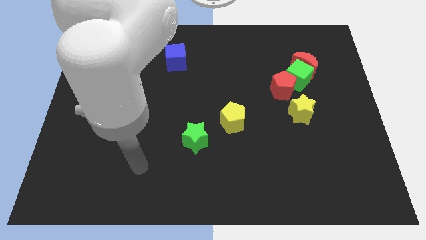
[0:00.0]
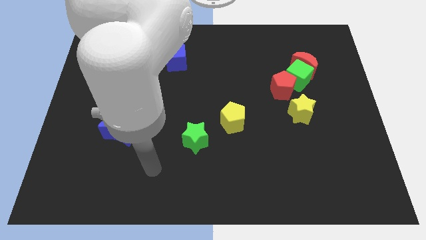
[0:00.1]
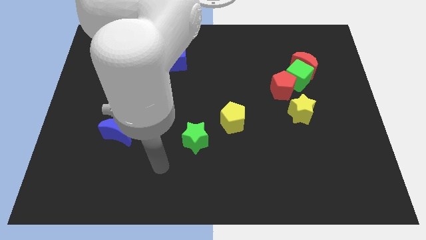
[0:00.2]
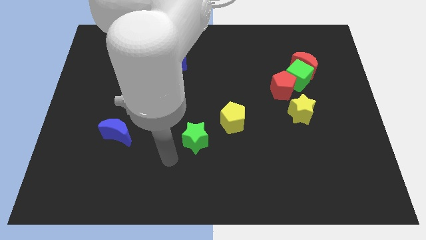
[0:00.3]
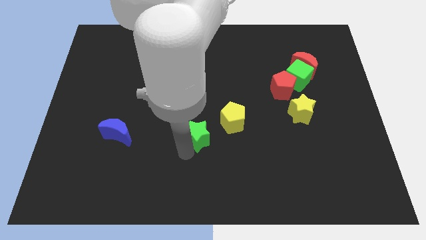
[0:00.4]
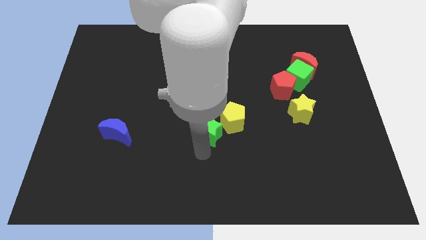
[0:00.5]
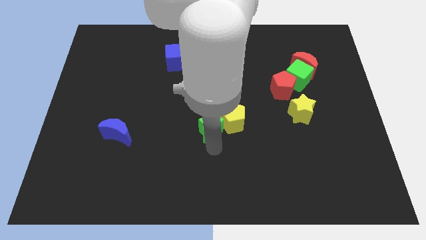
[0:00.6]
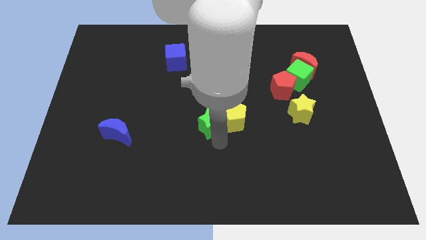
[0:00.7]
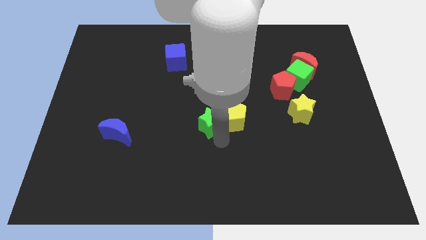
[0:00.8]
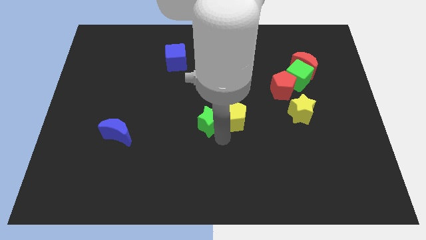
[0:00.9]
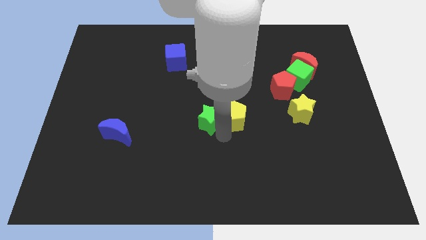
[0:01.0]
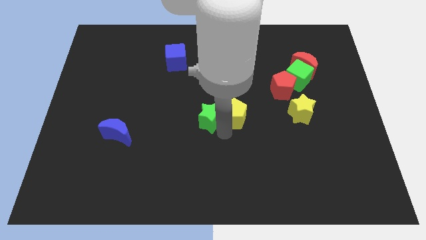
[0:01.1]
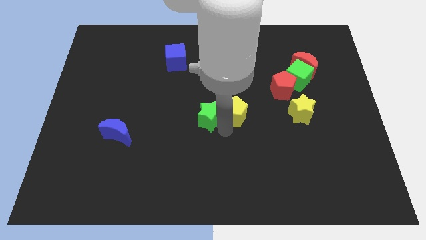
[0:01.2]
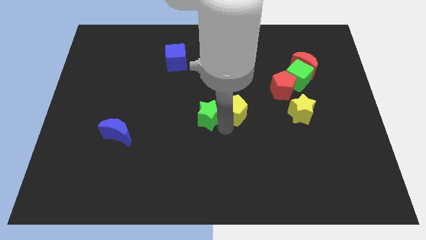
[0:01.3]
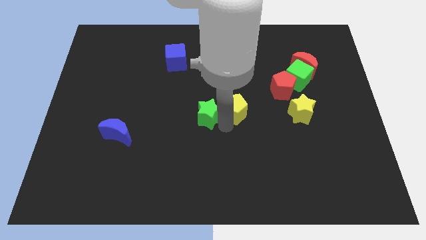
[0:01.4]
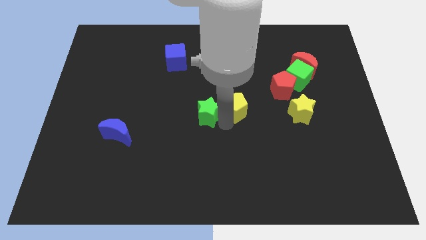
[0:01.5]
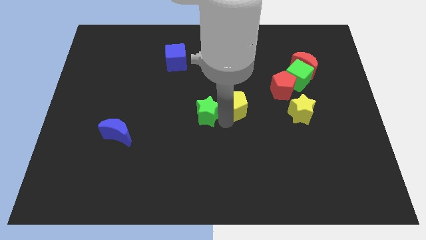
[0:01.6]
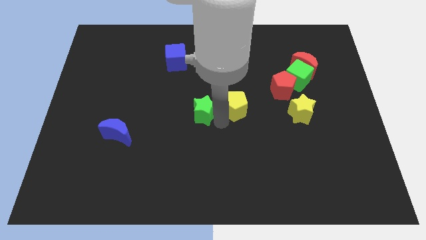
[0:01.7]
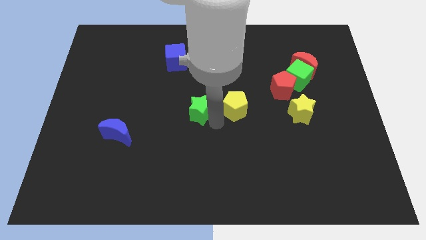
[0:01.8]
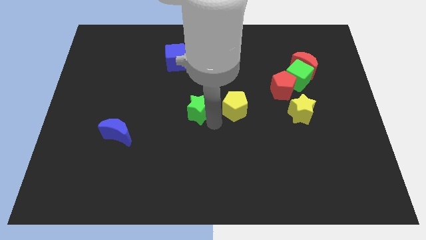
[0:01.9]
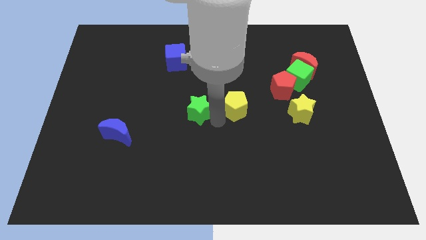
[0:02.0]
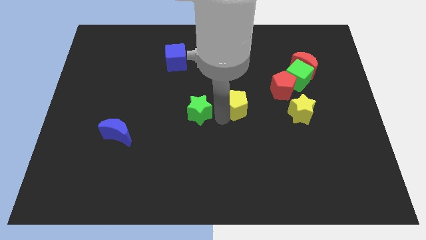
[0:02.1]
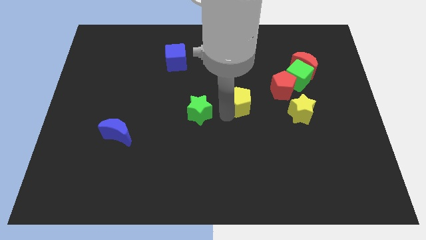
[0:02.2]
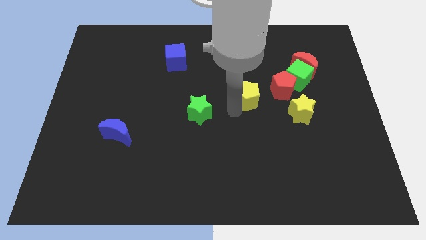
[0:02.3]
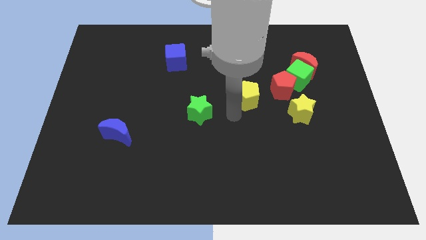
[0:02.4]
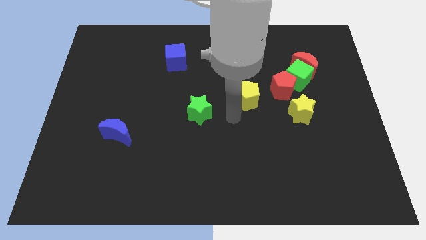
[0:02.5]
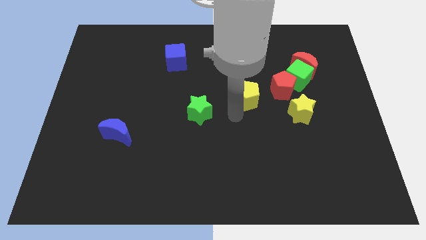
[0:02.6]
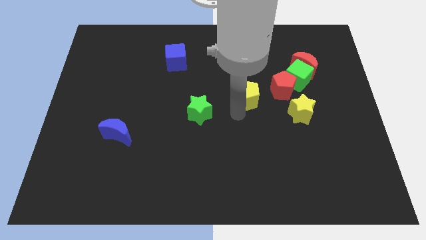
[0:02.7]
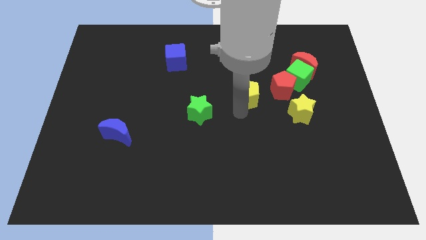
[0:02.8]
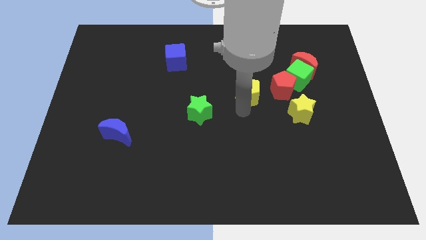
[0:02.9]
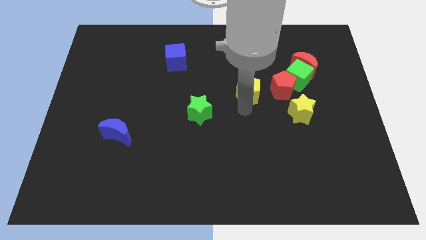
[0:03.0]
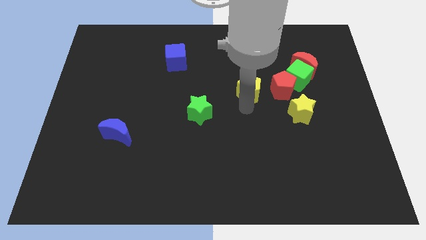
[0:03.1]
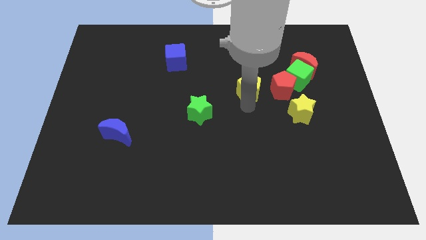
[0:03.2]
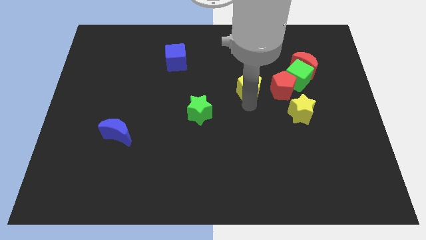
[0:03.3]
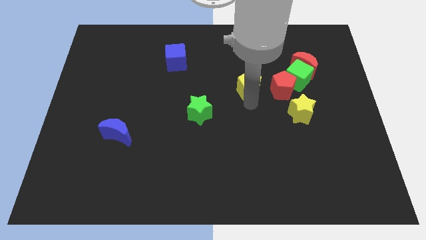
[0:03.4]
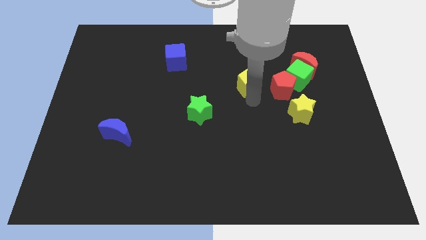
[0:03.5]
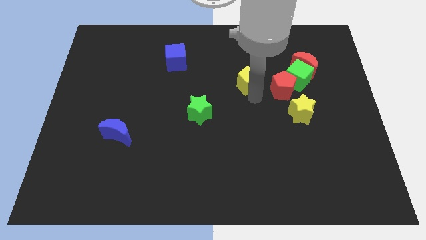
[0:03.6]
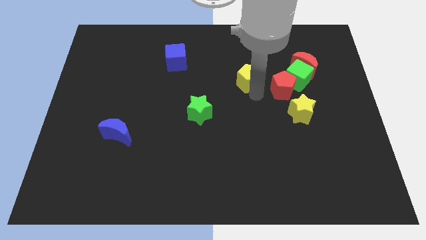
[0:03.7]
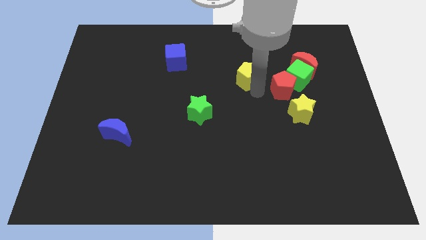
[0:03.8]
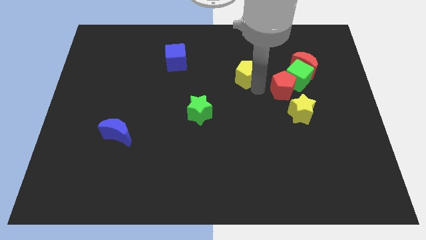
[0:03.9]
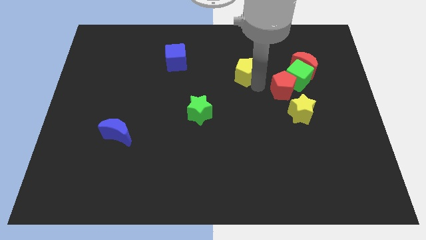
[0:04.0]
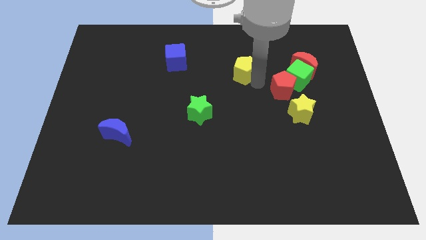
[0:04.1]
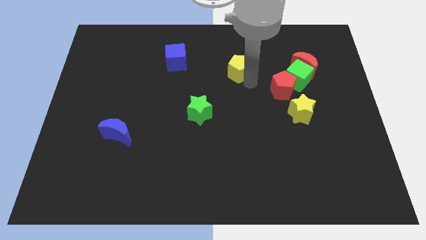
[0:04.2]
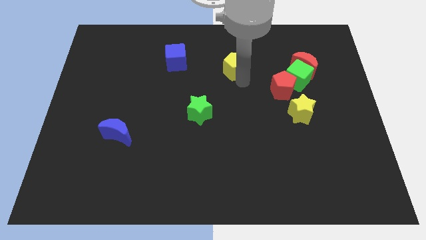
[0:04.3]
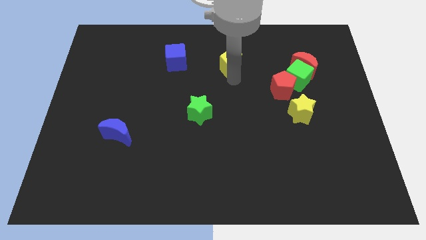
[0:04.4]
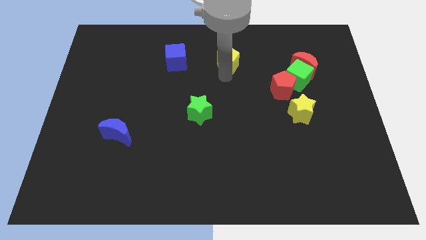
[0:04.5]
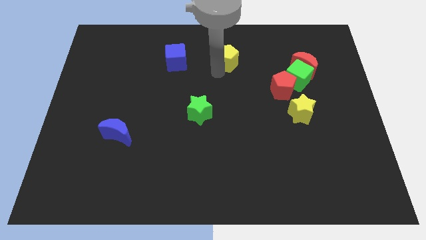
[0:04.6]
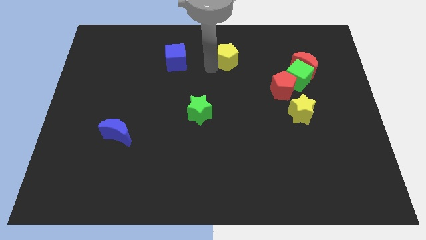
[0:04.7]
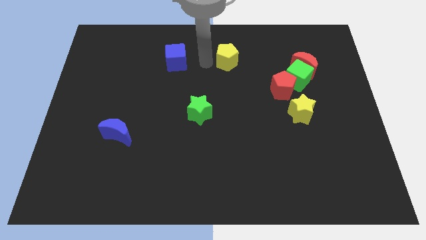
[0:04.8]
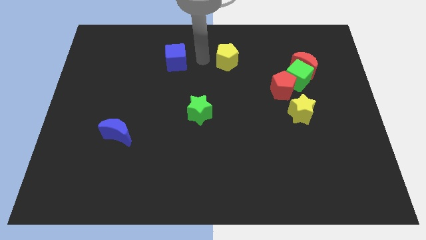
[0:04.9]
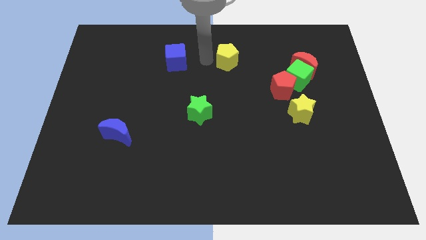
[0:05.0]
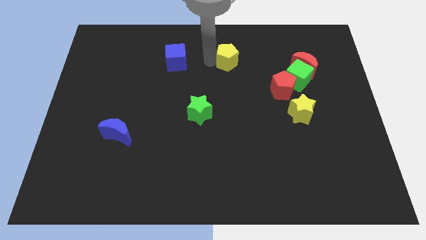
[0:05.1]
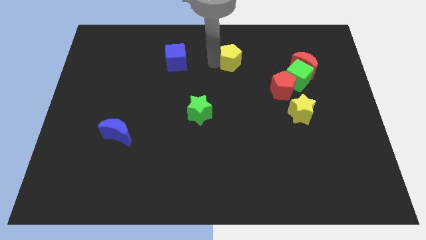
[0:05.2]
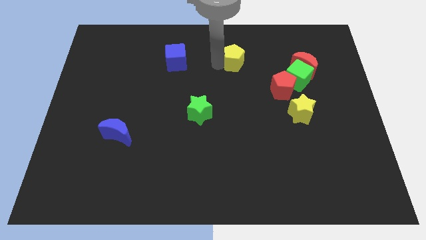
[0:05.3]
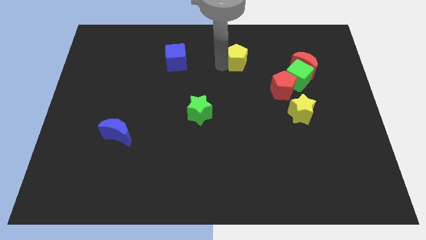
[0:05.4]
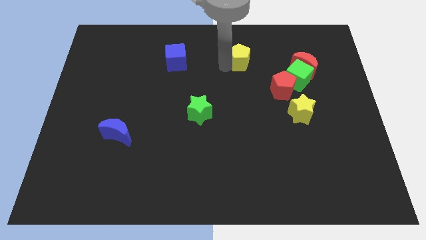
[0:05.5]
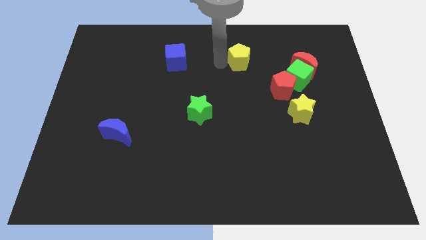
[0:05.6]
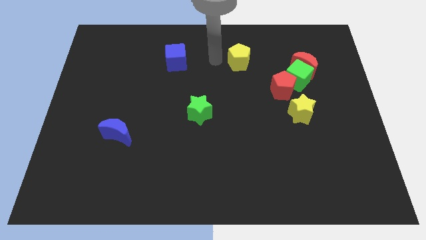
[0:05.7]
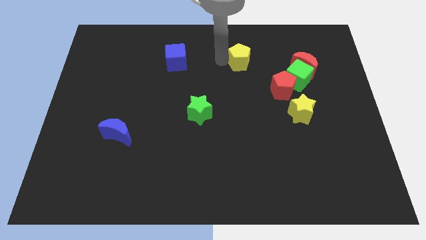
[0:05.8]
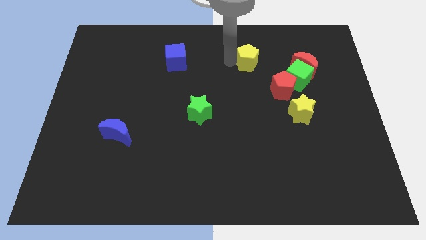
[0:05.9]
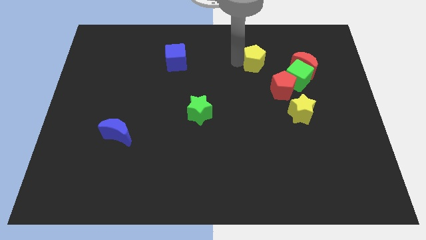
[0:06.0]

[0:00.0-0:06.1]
move the yellow pentagon to the top left side of the green cube

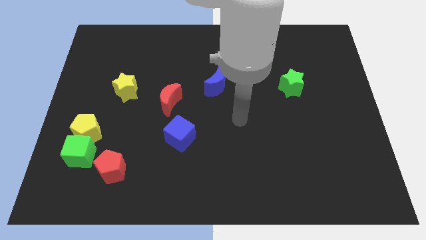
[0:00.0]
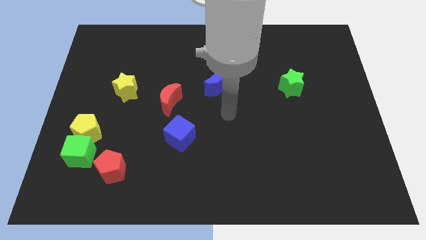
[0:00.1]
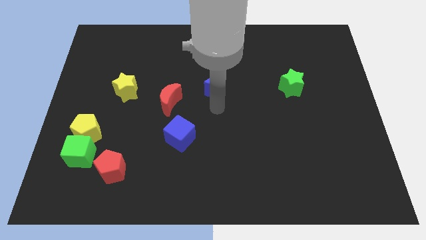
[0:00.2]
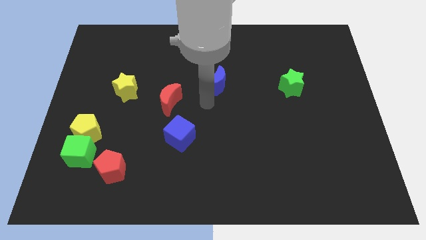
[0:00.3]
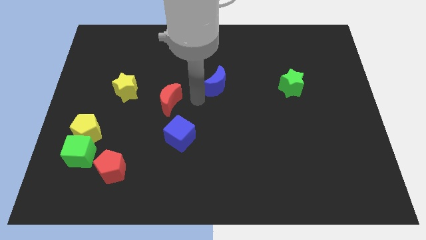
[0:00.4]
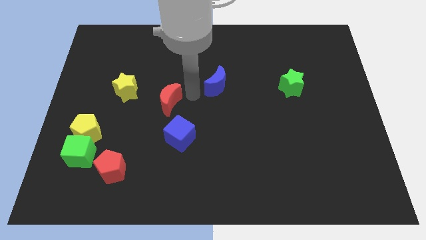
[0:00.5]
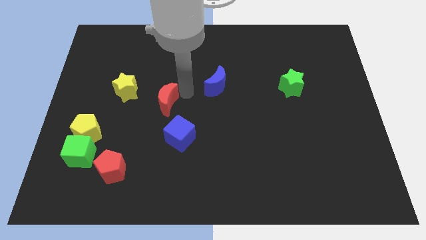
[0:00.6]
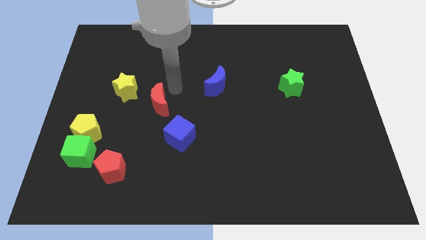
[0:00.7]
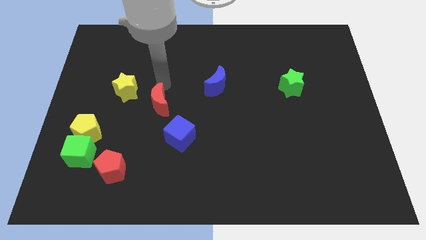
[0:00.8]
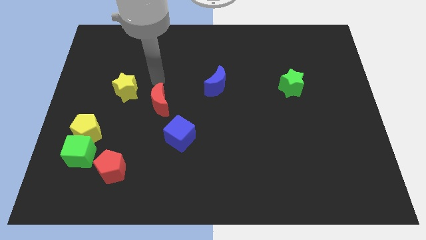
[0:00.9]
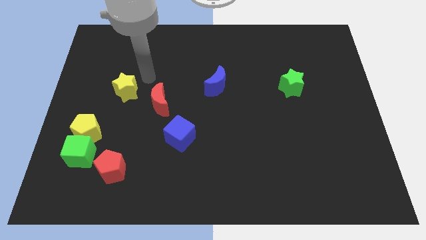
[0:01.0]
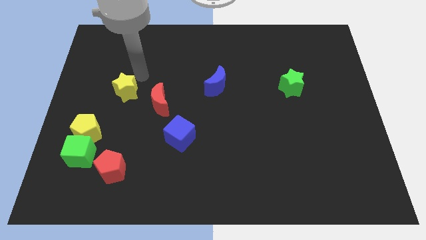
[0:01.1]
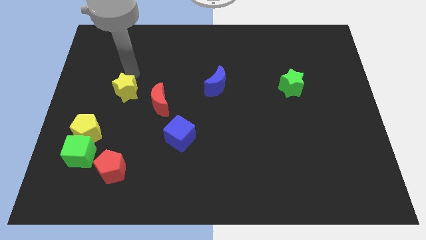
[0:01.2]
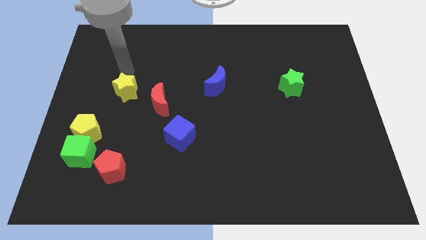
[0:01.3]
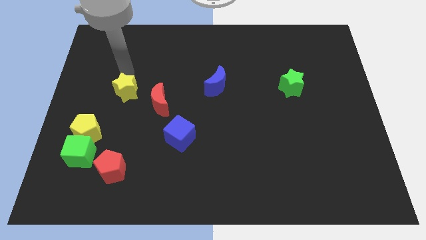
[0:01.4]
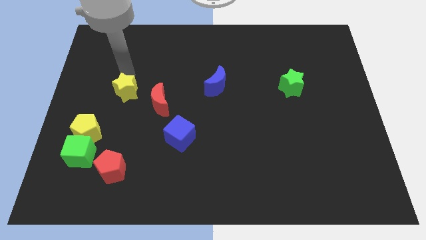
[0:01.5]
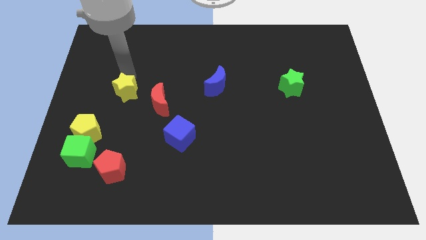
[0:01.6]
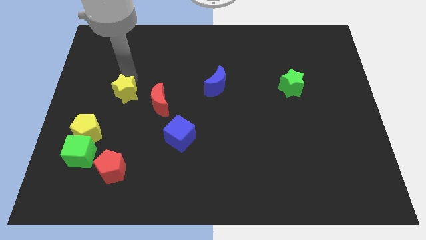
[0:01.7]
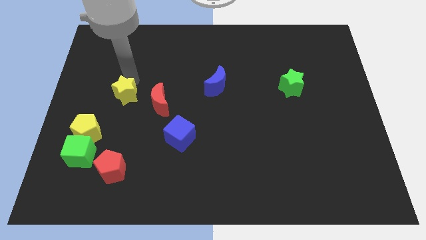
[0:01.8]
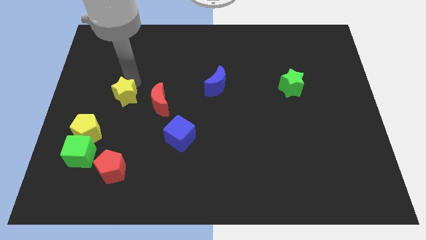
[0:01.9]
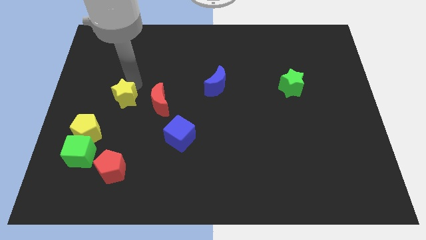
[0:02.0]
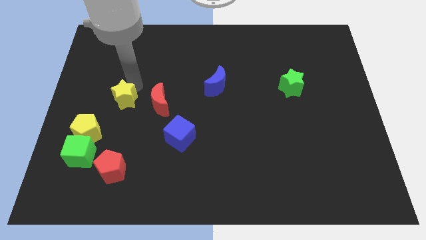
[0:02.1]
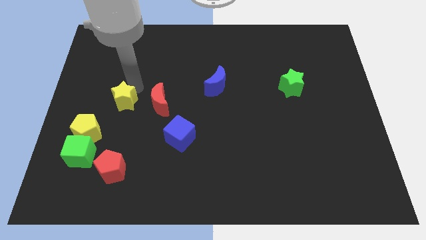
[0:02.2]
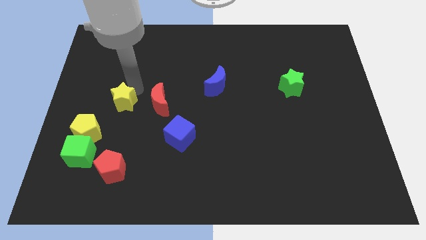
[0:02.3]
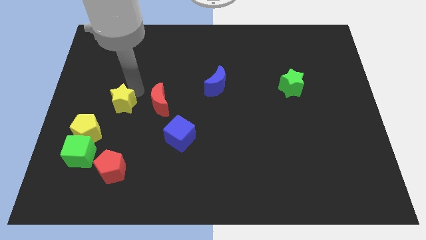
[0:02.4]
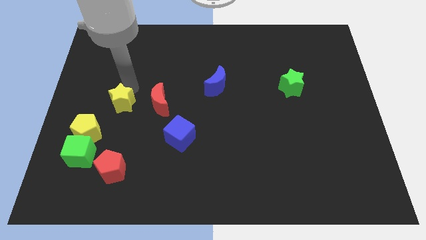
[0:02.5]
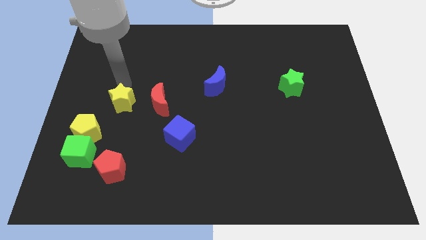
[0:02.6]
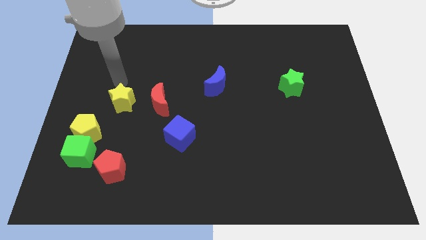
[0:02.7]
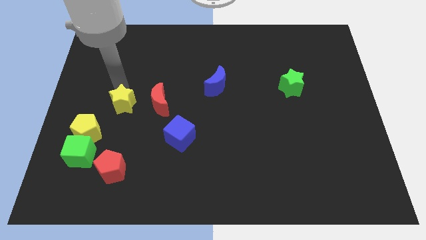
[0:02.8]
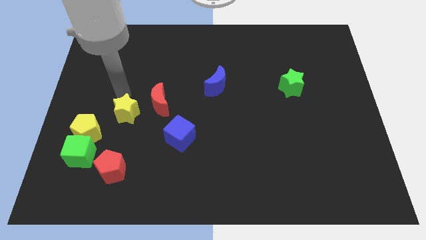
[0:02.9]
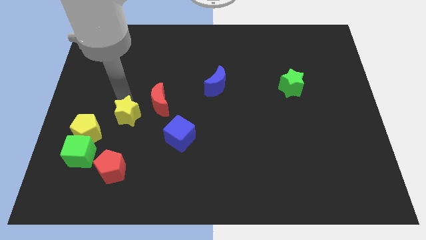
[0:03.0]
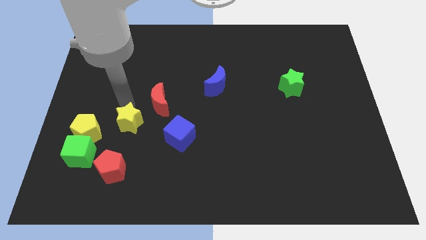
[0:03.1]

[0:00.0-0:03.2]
put the yellow star to the left side of the blue cube
